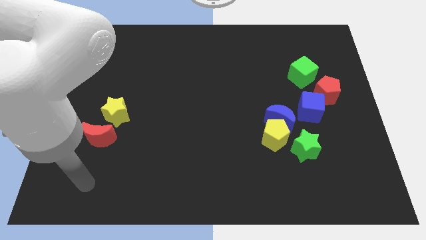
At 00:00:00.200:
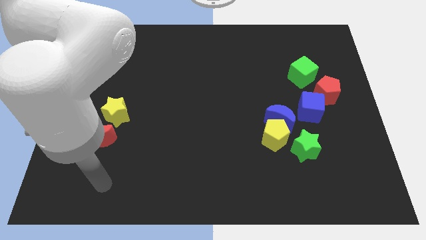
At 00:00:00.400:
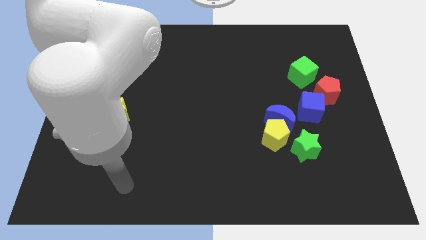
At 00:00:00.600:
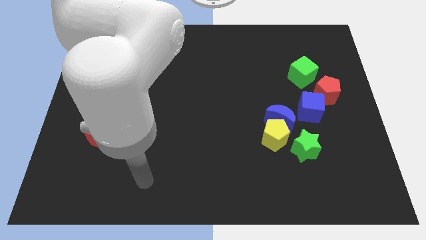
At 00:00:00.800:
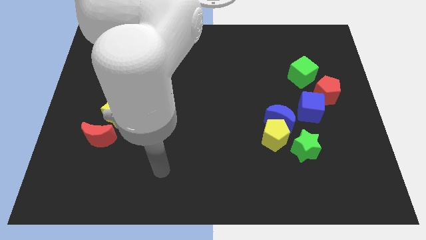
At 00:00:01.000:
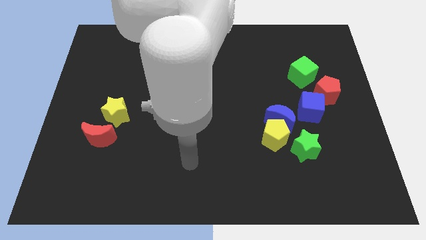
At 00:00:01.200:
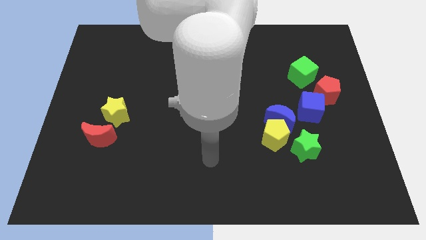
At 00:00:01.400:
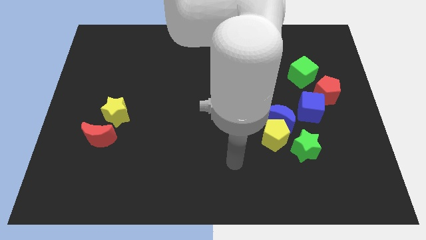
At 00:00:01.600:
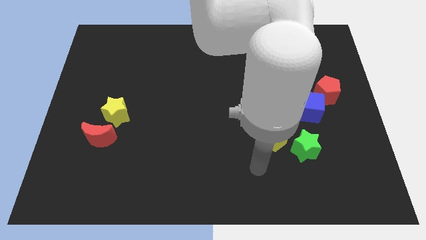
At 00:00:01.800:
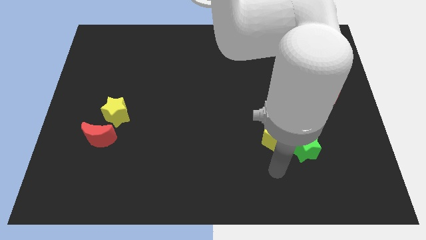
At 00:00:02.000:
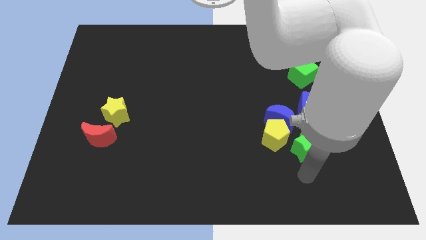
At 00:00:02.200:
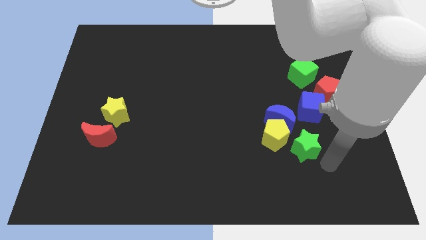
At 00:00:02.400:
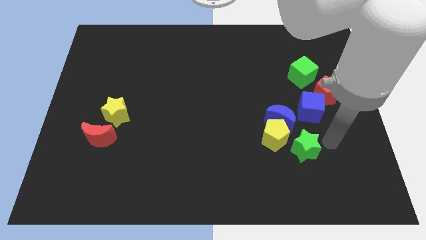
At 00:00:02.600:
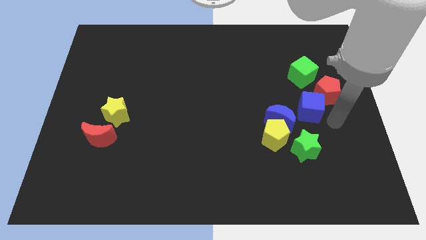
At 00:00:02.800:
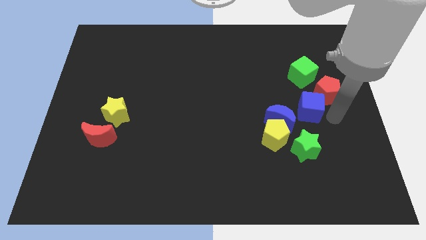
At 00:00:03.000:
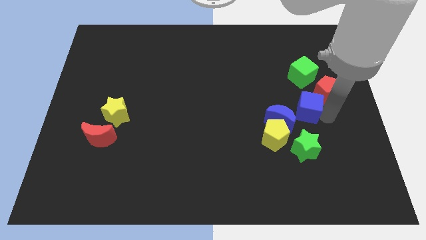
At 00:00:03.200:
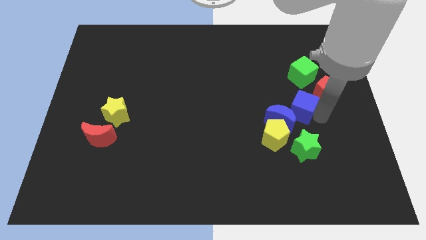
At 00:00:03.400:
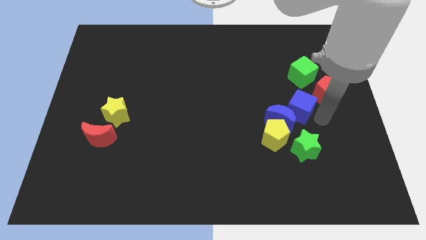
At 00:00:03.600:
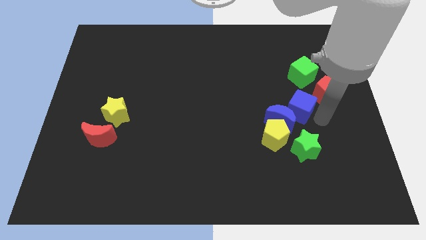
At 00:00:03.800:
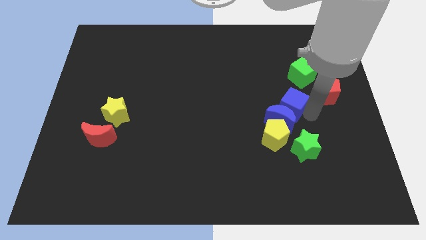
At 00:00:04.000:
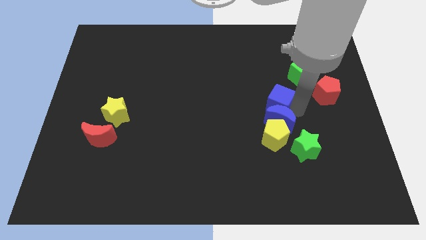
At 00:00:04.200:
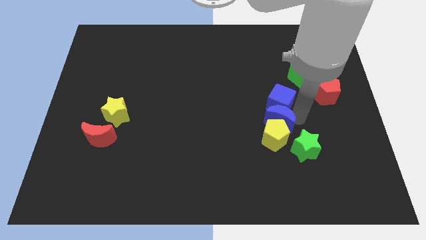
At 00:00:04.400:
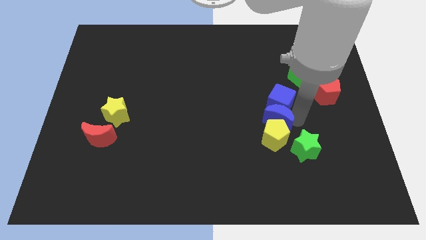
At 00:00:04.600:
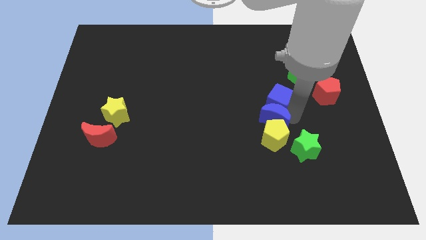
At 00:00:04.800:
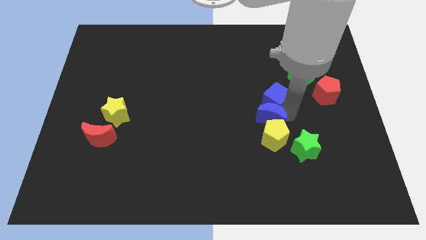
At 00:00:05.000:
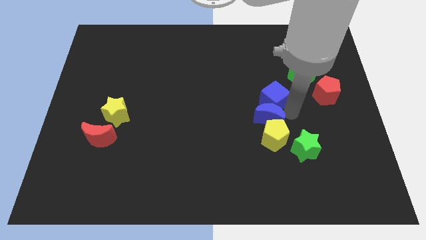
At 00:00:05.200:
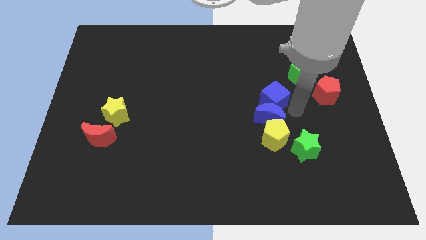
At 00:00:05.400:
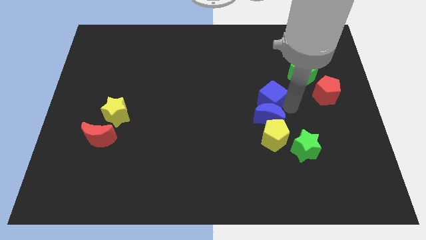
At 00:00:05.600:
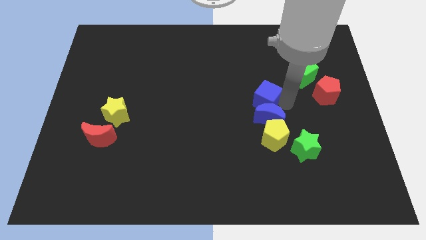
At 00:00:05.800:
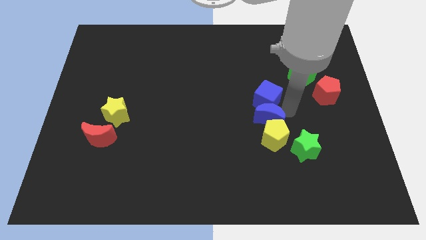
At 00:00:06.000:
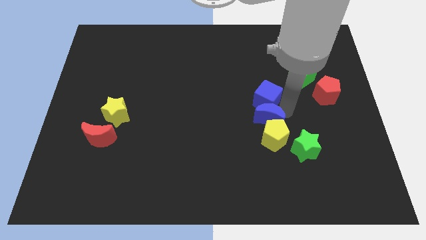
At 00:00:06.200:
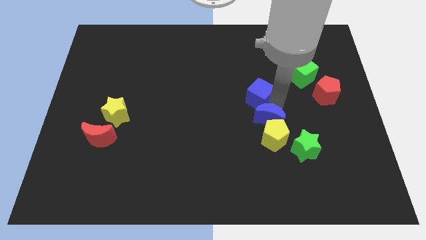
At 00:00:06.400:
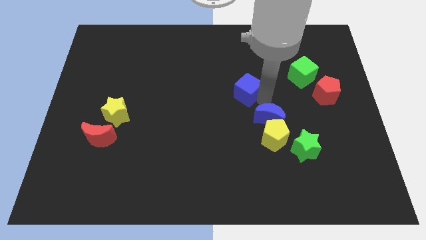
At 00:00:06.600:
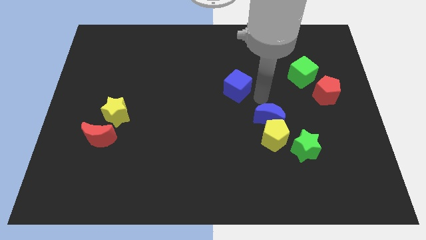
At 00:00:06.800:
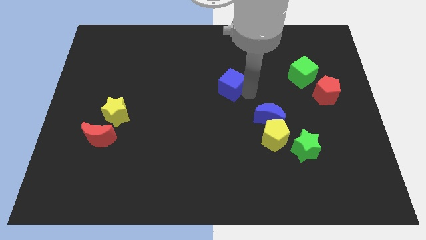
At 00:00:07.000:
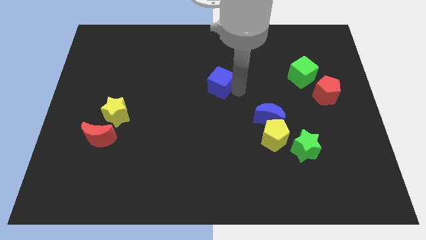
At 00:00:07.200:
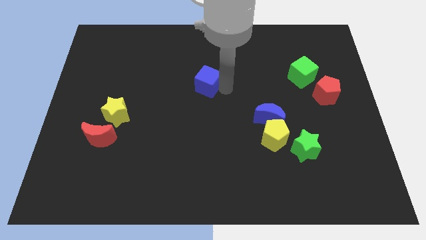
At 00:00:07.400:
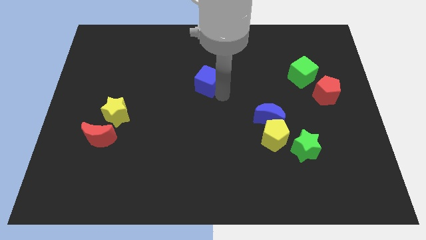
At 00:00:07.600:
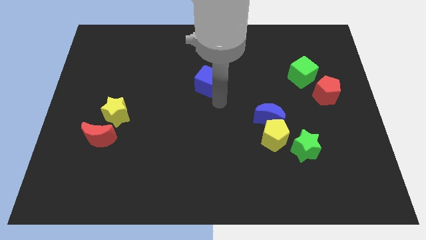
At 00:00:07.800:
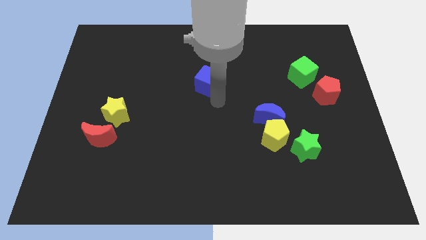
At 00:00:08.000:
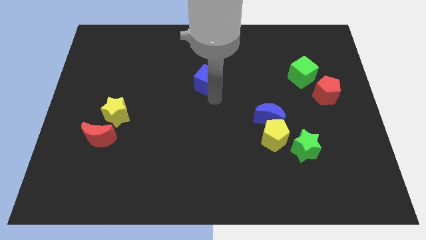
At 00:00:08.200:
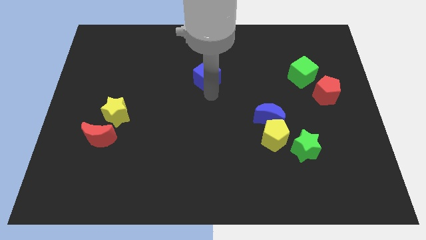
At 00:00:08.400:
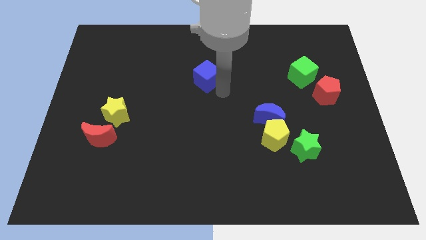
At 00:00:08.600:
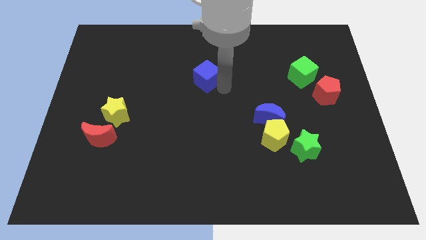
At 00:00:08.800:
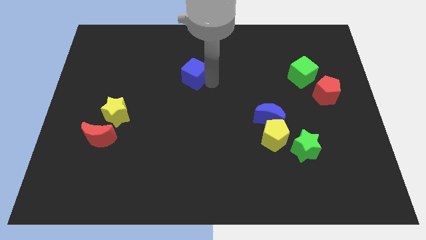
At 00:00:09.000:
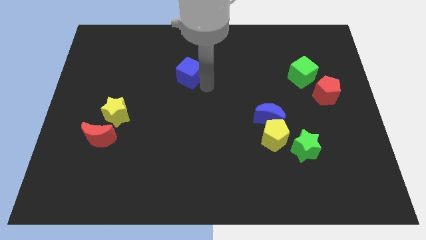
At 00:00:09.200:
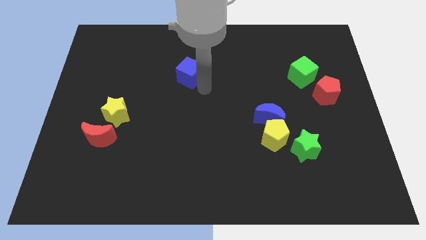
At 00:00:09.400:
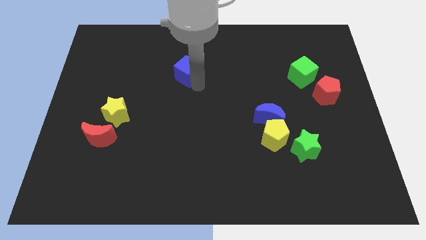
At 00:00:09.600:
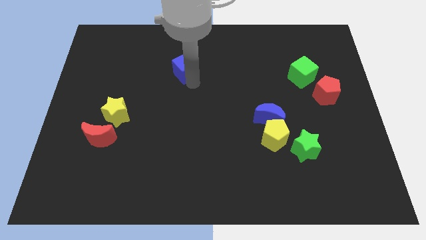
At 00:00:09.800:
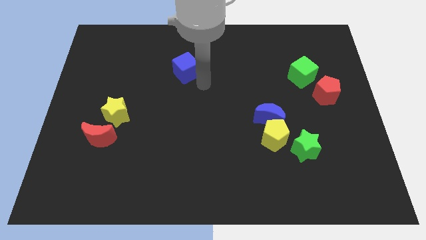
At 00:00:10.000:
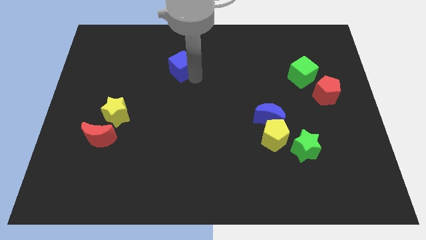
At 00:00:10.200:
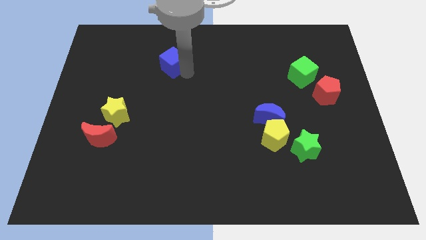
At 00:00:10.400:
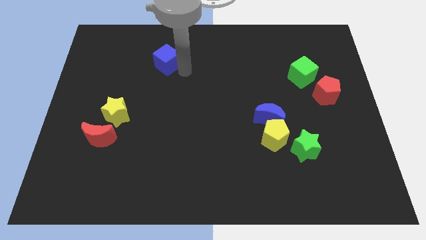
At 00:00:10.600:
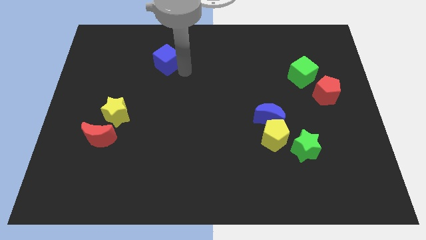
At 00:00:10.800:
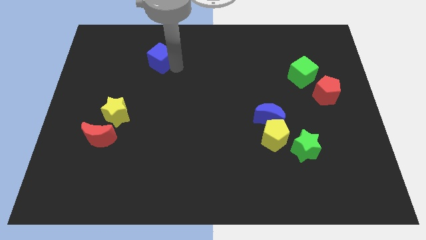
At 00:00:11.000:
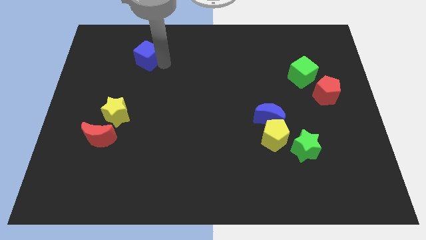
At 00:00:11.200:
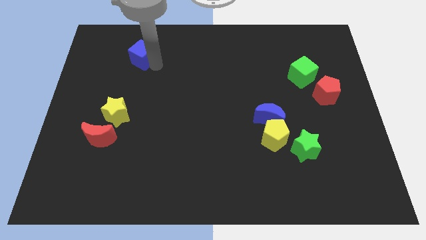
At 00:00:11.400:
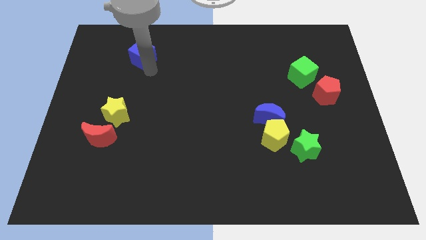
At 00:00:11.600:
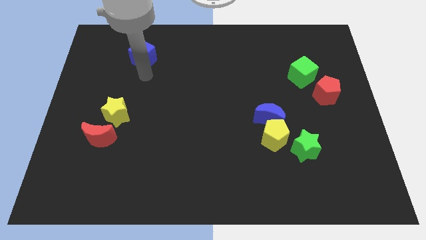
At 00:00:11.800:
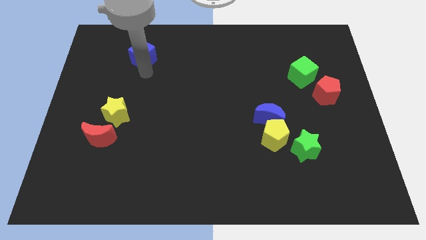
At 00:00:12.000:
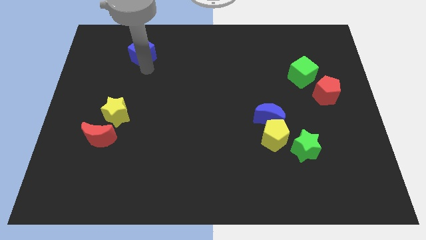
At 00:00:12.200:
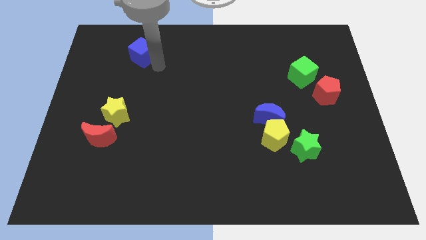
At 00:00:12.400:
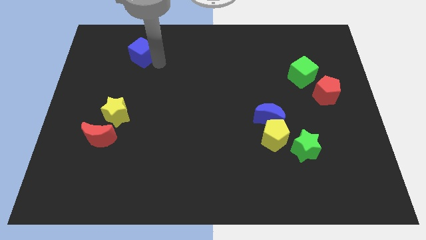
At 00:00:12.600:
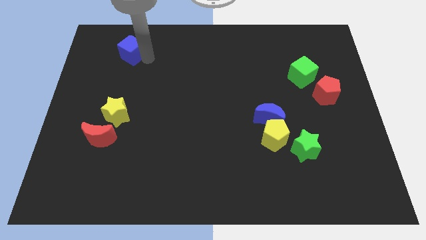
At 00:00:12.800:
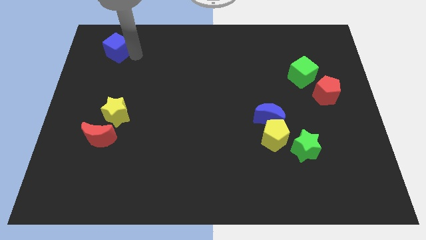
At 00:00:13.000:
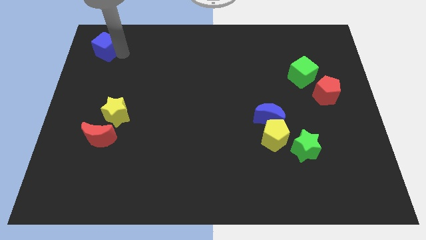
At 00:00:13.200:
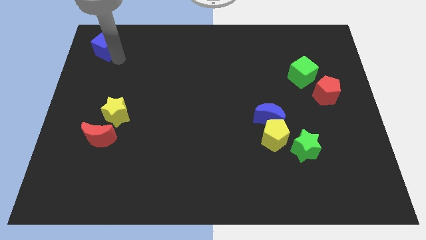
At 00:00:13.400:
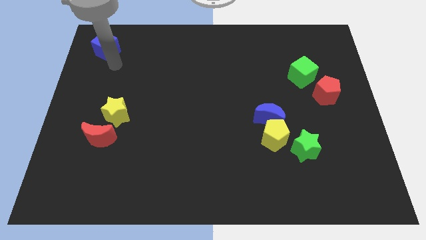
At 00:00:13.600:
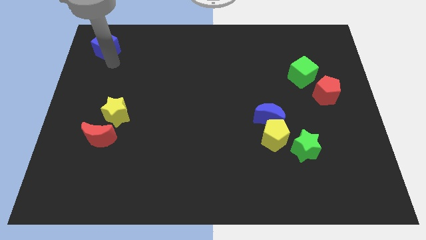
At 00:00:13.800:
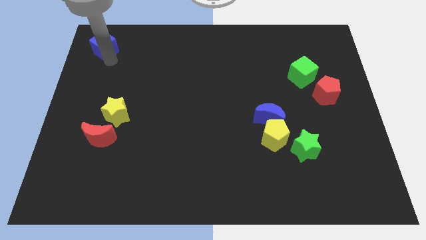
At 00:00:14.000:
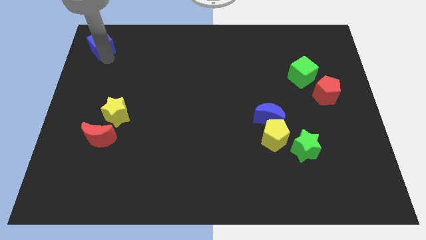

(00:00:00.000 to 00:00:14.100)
move the blue cube to the top left
